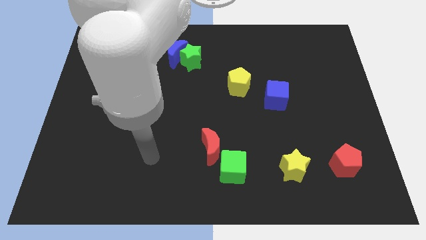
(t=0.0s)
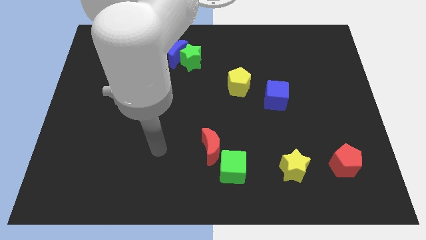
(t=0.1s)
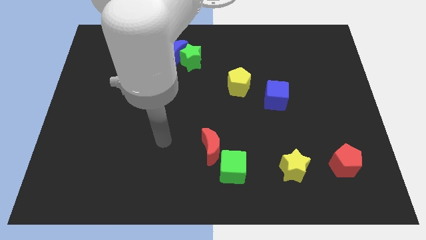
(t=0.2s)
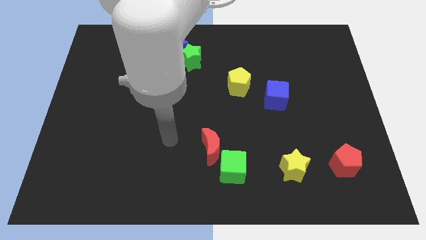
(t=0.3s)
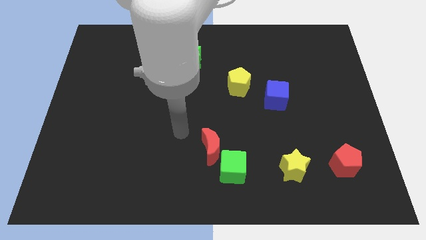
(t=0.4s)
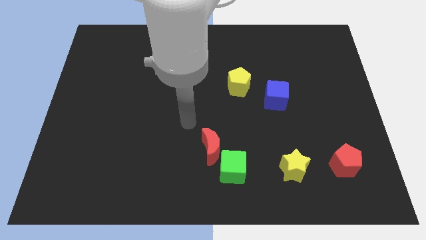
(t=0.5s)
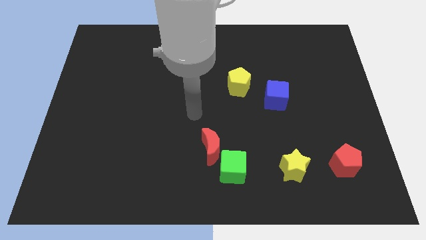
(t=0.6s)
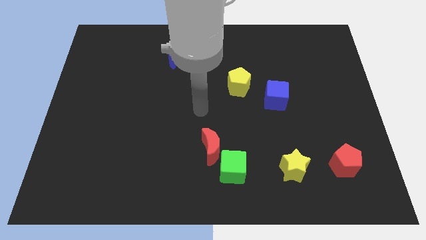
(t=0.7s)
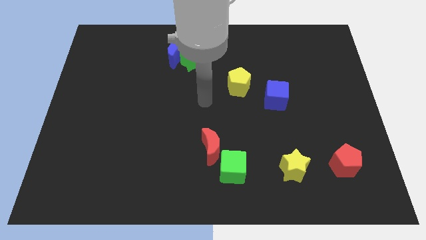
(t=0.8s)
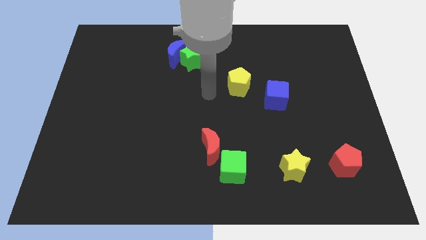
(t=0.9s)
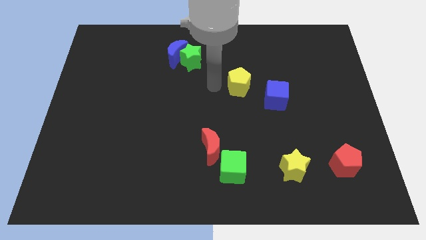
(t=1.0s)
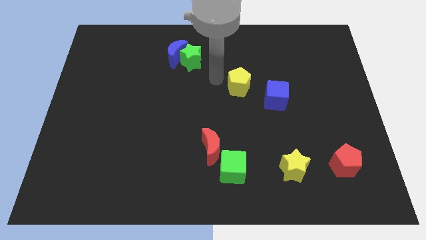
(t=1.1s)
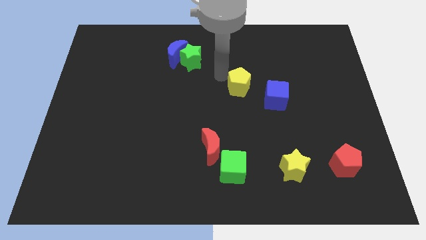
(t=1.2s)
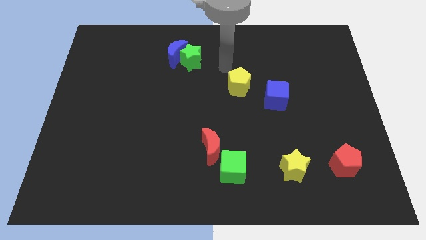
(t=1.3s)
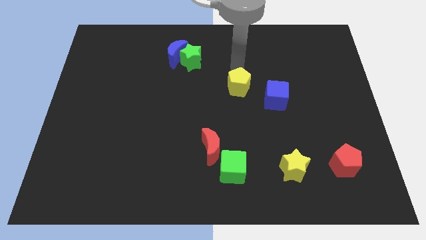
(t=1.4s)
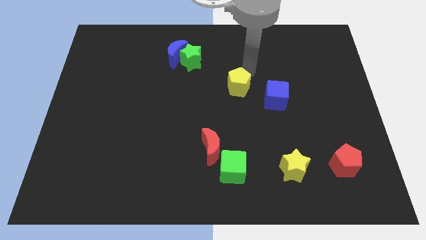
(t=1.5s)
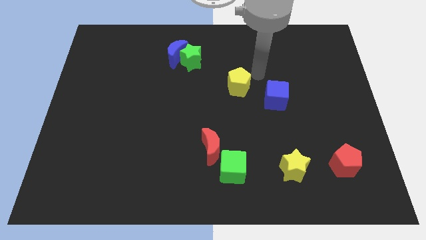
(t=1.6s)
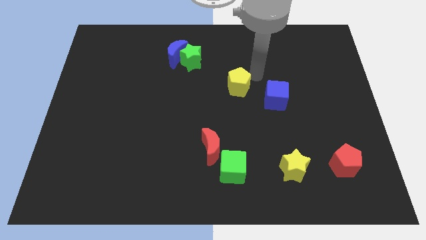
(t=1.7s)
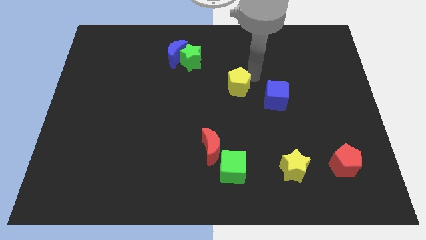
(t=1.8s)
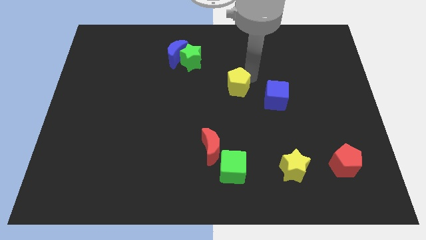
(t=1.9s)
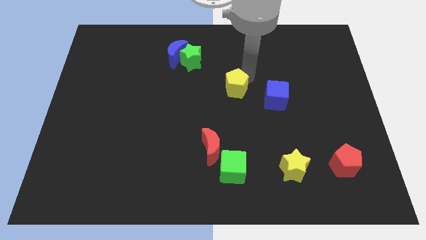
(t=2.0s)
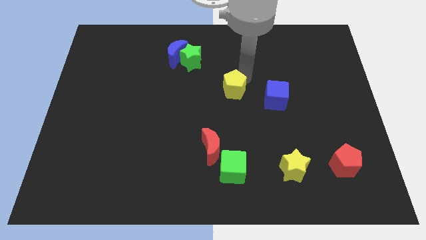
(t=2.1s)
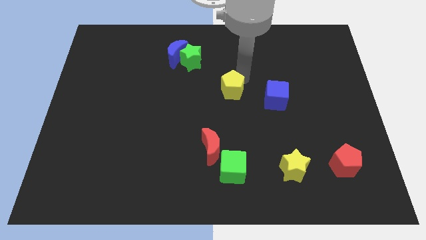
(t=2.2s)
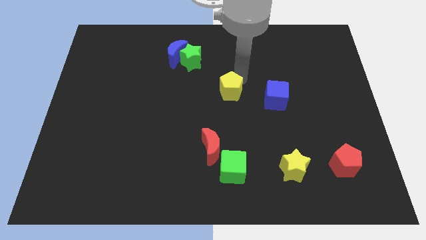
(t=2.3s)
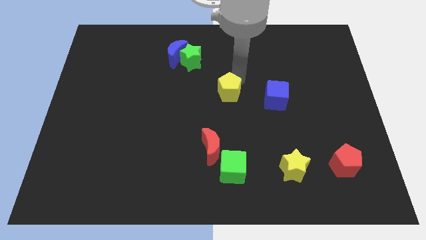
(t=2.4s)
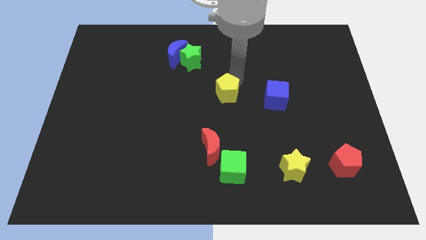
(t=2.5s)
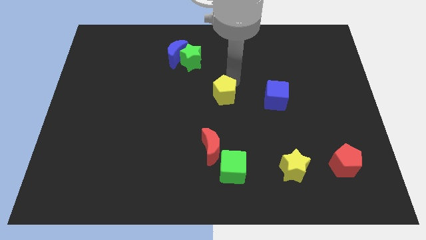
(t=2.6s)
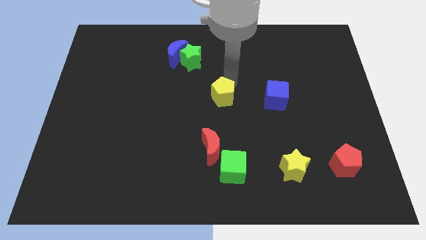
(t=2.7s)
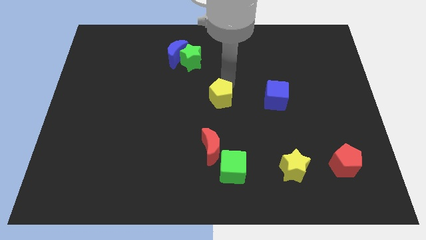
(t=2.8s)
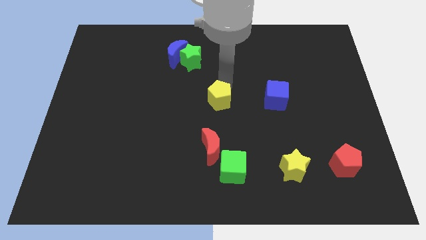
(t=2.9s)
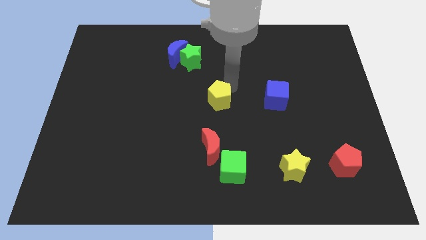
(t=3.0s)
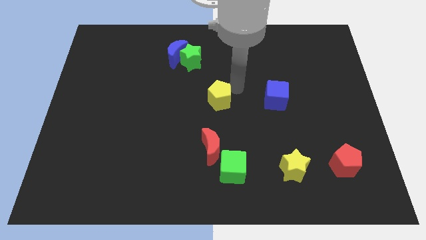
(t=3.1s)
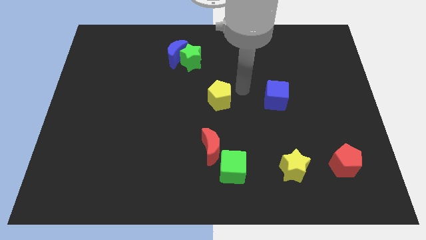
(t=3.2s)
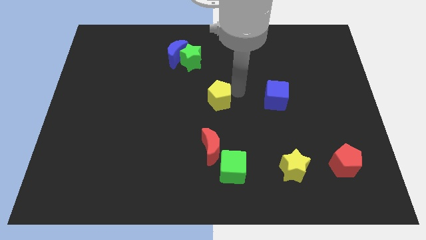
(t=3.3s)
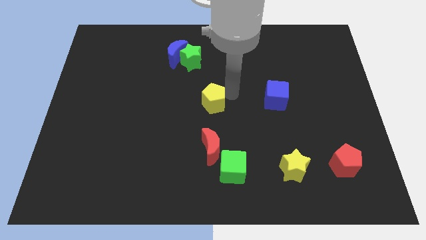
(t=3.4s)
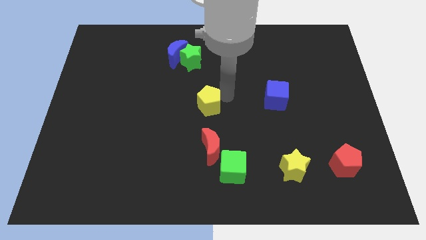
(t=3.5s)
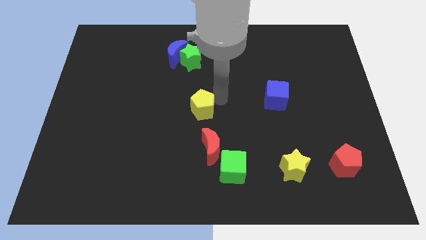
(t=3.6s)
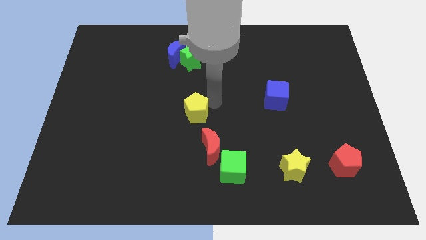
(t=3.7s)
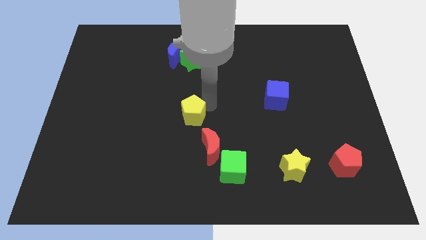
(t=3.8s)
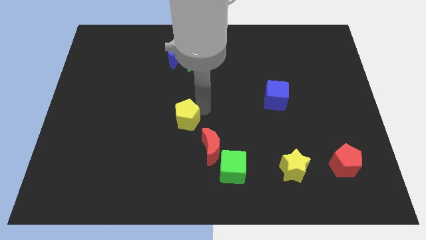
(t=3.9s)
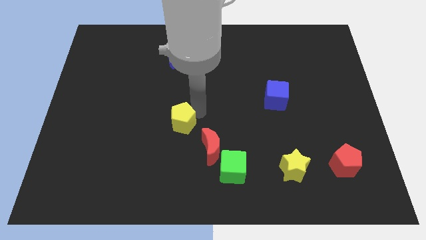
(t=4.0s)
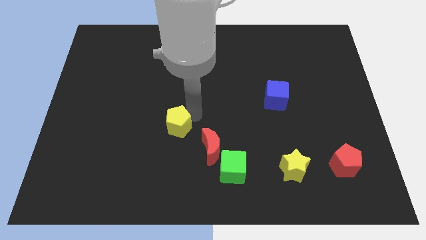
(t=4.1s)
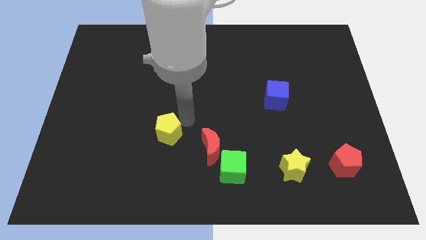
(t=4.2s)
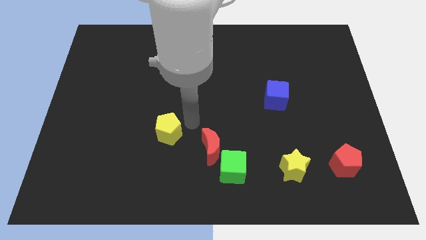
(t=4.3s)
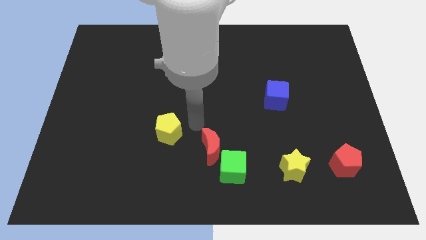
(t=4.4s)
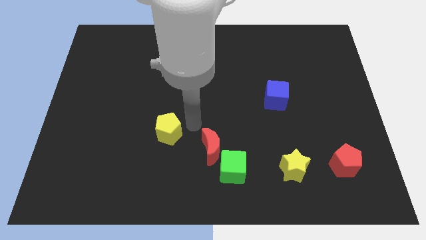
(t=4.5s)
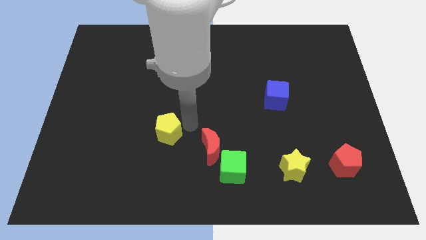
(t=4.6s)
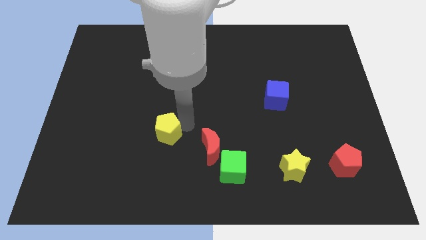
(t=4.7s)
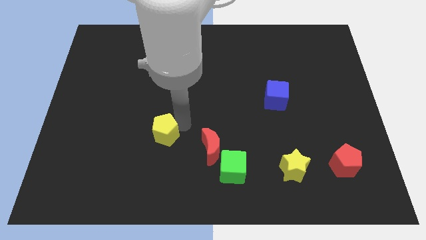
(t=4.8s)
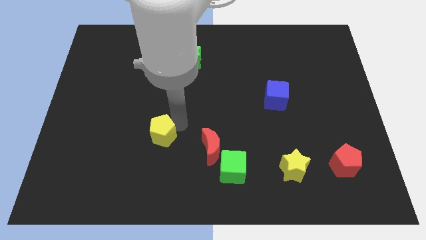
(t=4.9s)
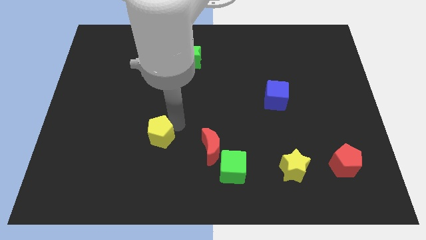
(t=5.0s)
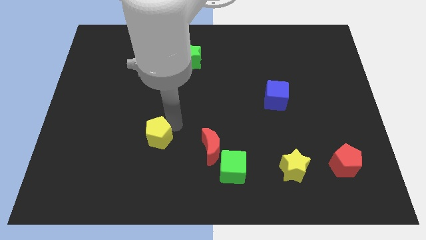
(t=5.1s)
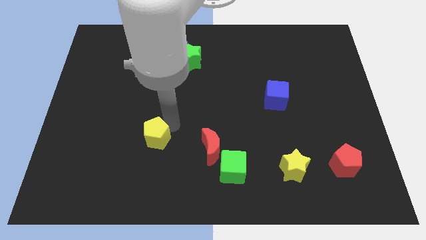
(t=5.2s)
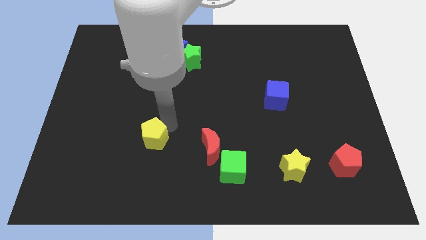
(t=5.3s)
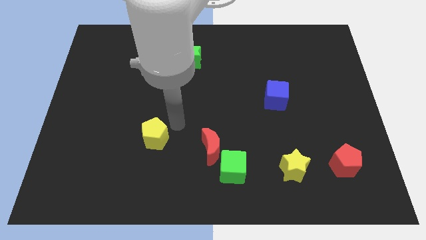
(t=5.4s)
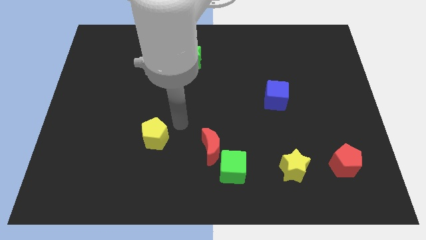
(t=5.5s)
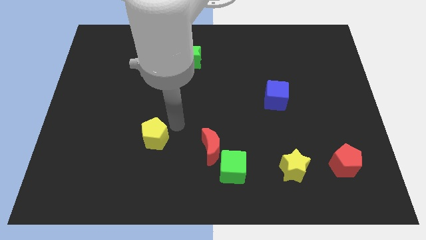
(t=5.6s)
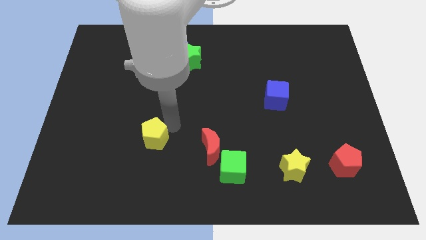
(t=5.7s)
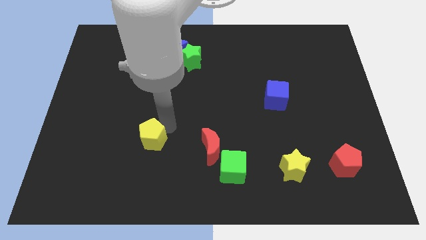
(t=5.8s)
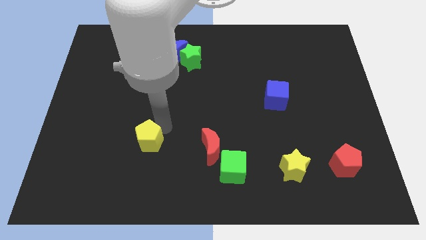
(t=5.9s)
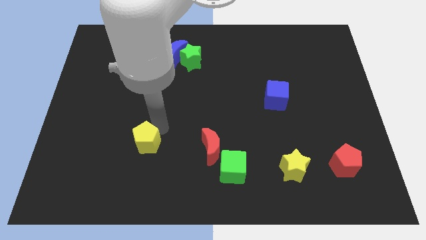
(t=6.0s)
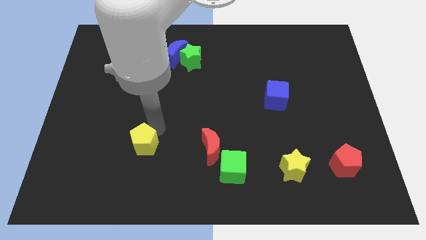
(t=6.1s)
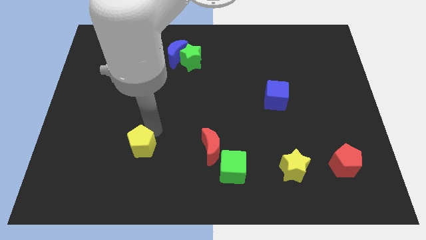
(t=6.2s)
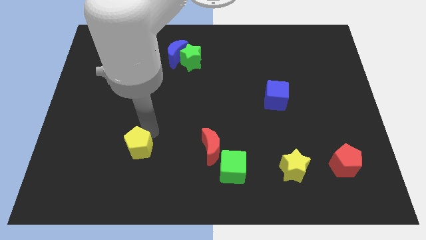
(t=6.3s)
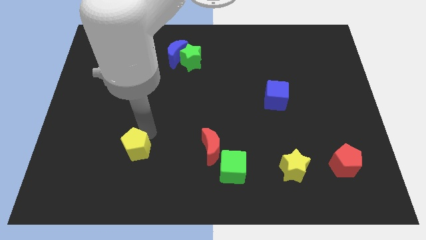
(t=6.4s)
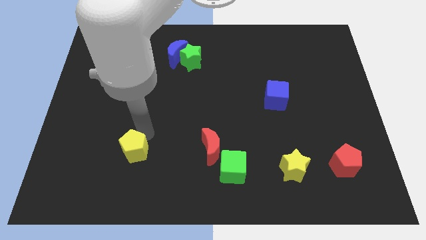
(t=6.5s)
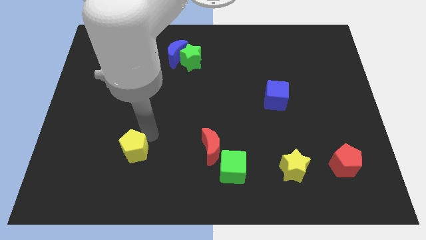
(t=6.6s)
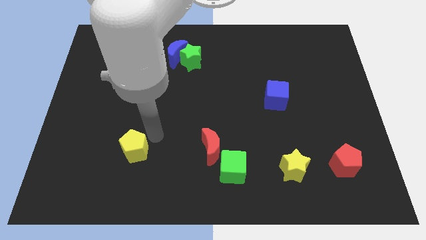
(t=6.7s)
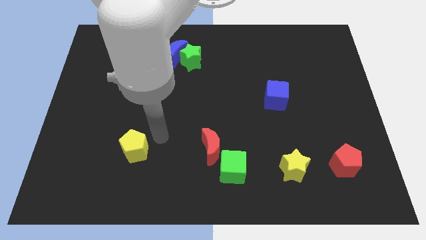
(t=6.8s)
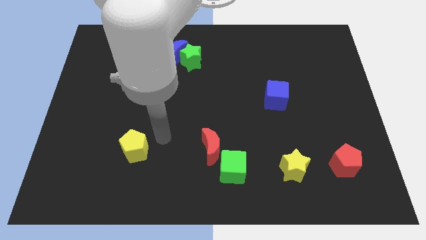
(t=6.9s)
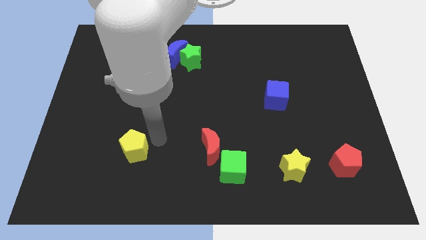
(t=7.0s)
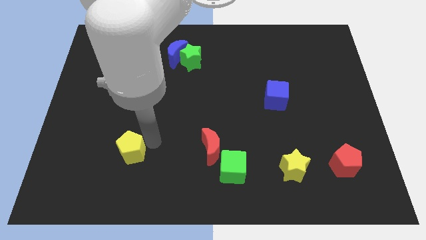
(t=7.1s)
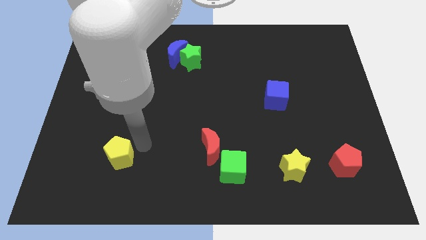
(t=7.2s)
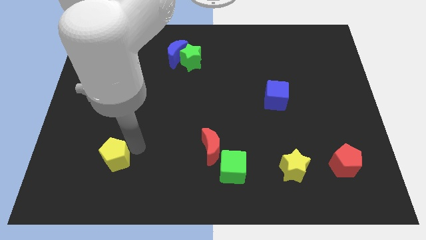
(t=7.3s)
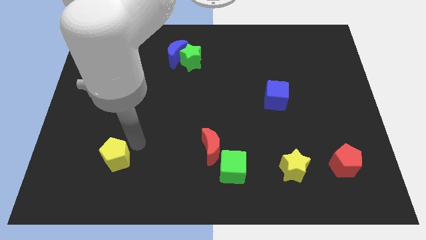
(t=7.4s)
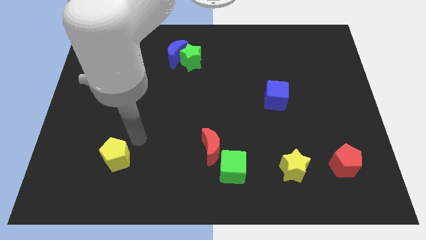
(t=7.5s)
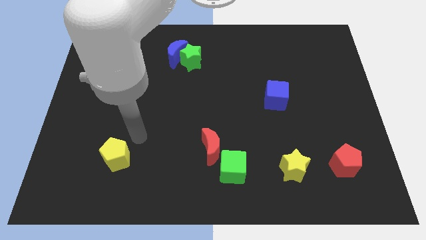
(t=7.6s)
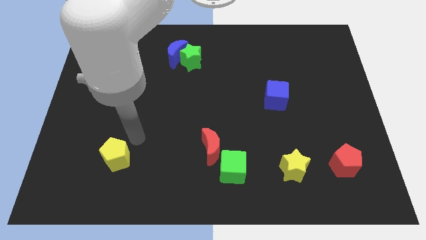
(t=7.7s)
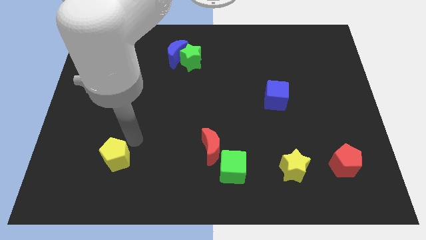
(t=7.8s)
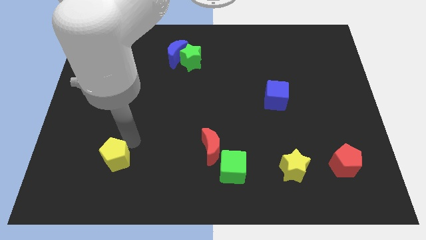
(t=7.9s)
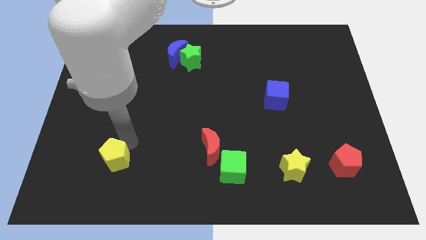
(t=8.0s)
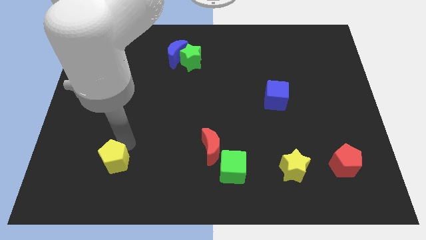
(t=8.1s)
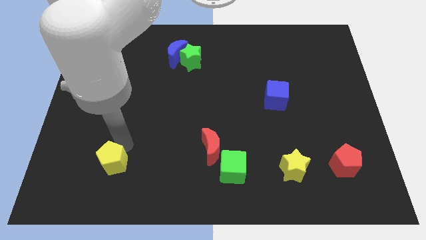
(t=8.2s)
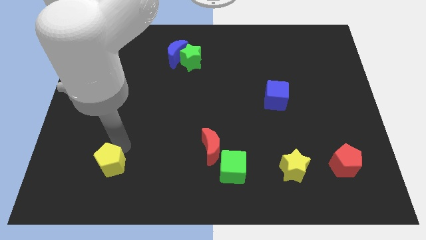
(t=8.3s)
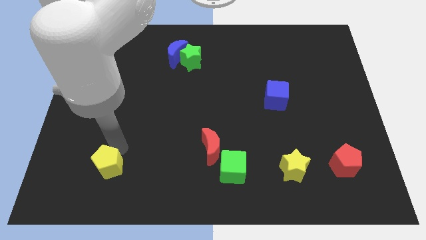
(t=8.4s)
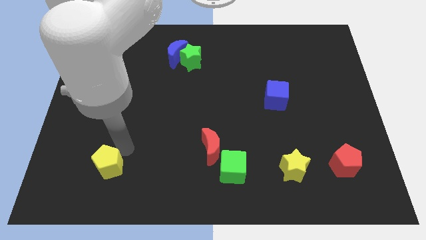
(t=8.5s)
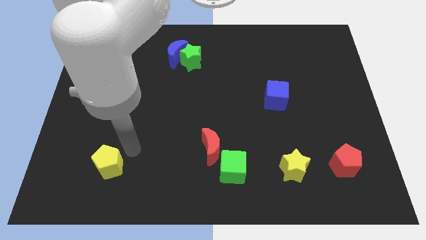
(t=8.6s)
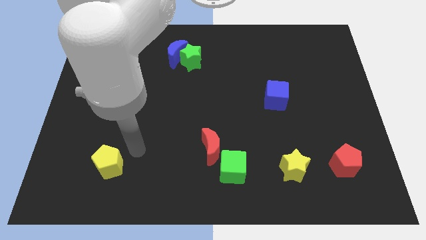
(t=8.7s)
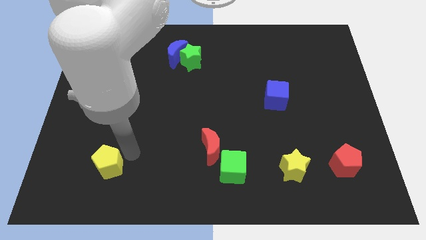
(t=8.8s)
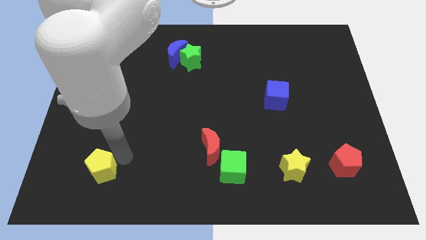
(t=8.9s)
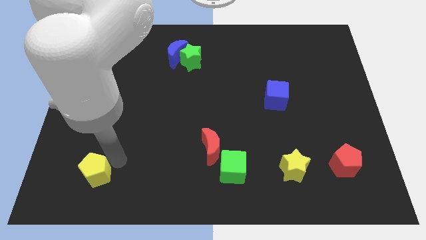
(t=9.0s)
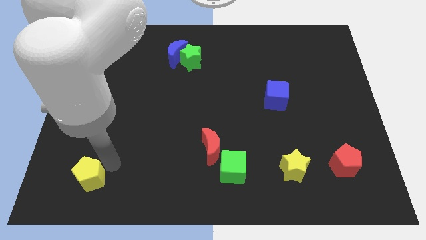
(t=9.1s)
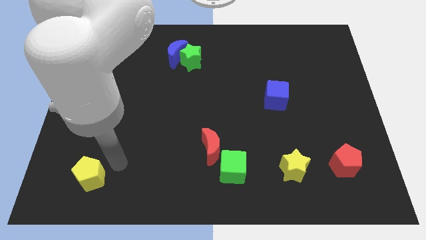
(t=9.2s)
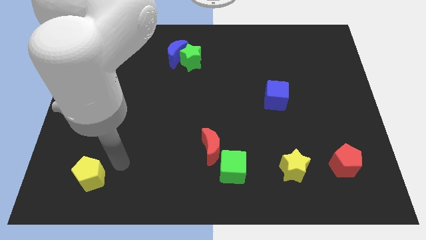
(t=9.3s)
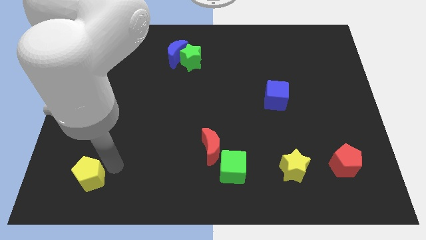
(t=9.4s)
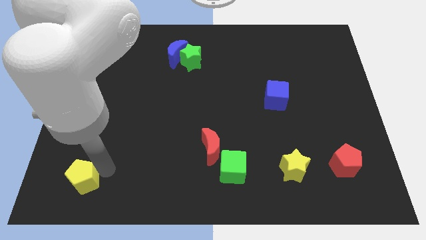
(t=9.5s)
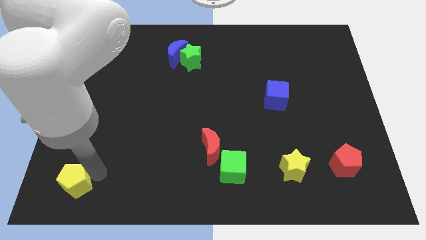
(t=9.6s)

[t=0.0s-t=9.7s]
put the yellow pentagon to the lower left corner
